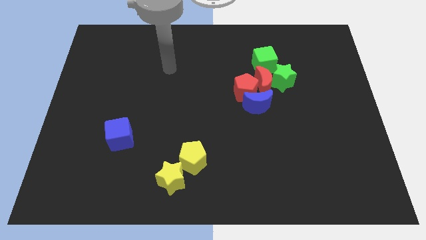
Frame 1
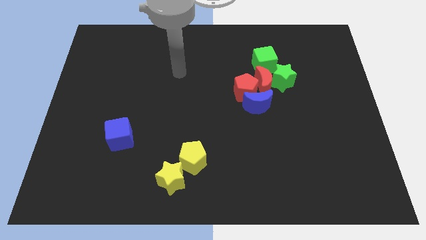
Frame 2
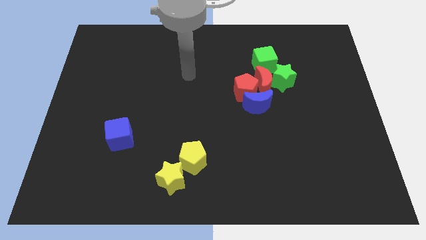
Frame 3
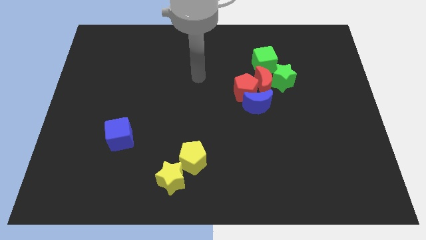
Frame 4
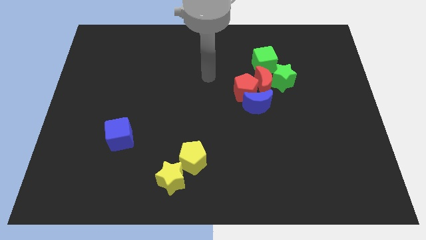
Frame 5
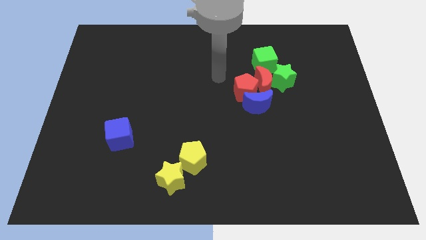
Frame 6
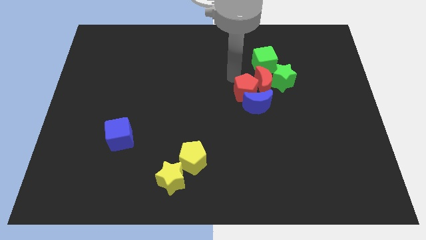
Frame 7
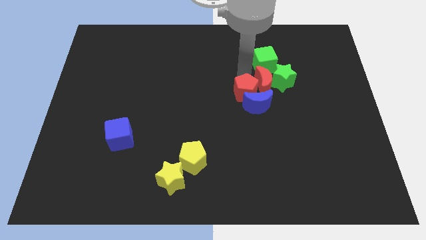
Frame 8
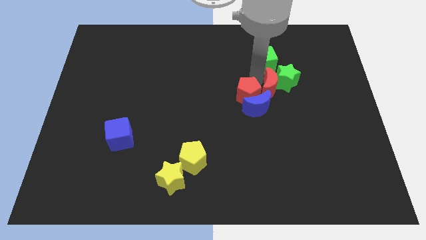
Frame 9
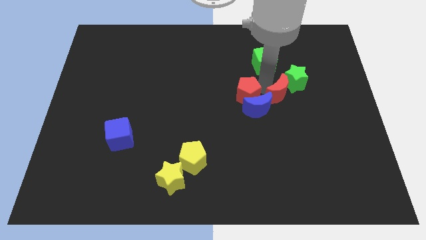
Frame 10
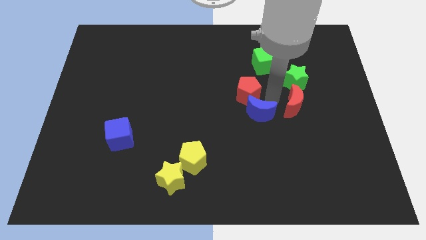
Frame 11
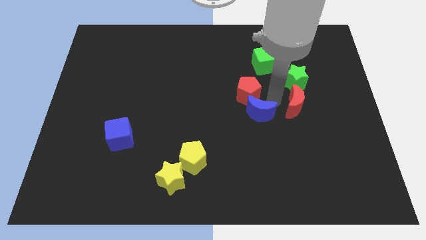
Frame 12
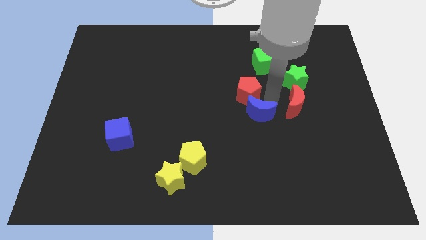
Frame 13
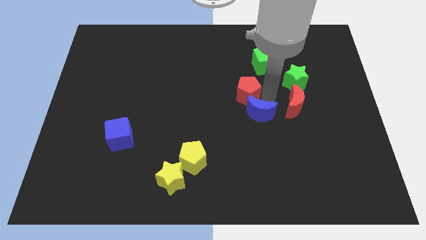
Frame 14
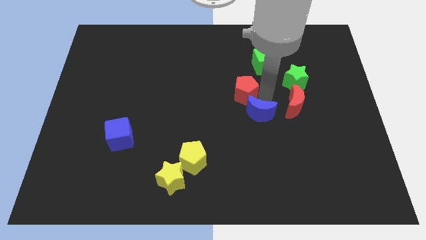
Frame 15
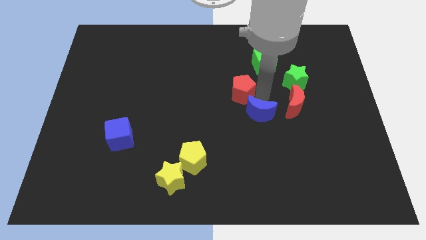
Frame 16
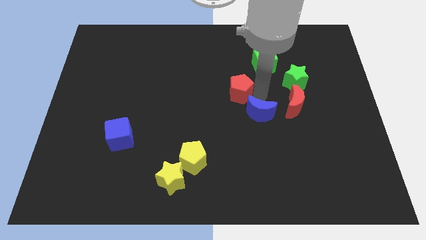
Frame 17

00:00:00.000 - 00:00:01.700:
pull the red pentagon apart from the blue moon and red moon

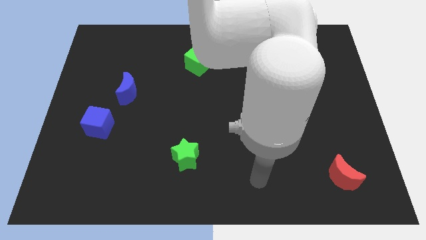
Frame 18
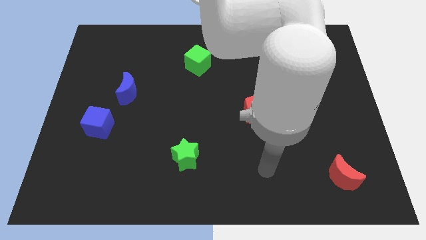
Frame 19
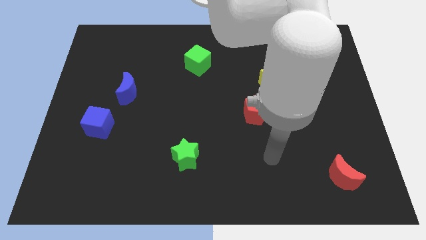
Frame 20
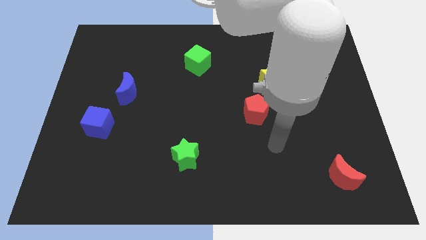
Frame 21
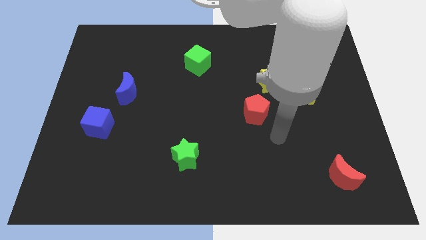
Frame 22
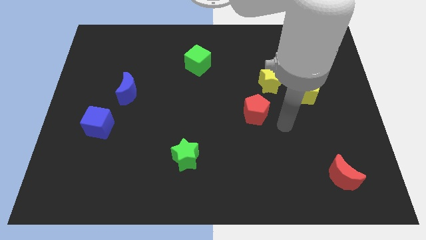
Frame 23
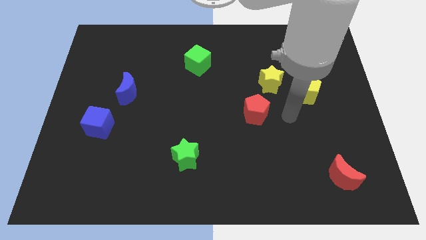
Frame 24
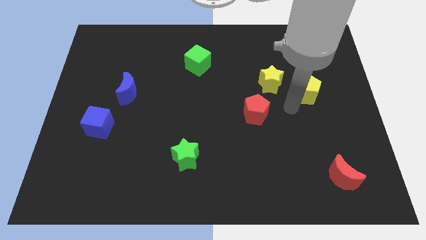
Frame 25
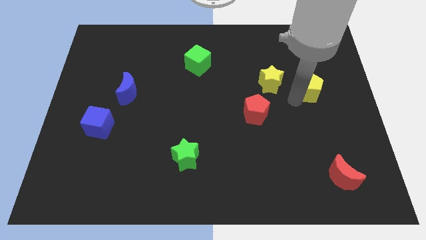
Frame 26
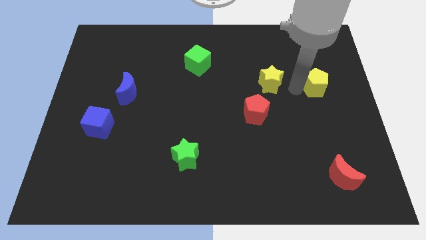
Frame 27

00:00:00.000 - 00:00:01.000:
pull the yellow star apart from the yellow pentagon

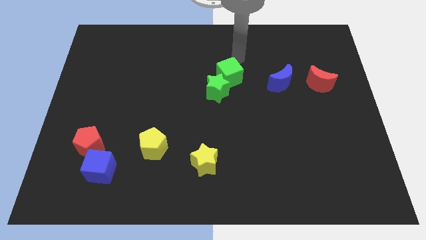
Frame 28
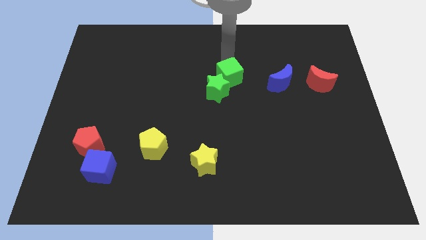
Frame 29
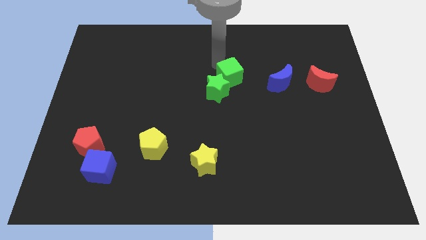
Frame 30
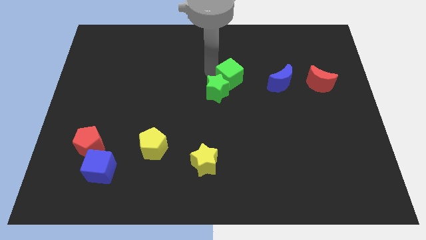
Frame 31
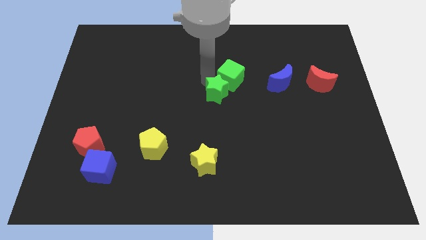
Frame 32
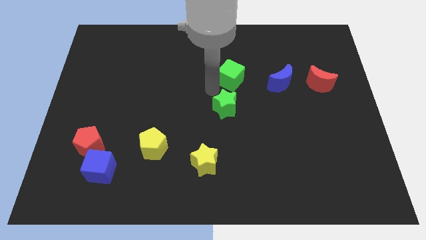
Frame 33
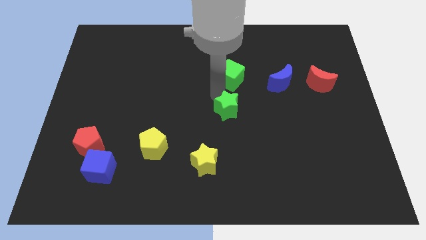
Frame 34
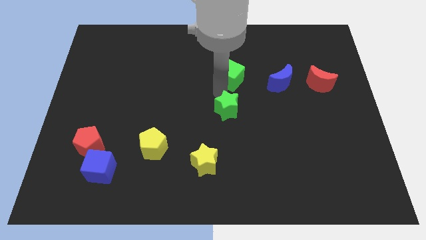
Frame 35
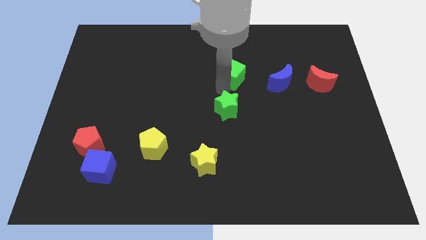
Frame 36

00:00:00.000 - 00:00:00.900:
pull the green cube apart from the green star

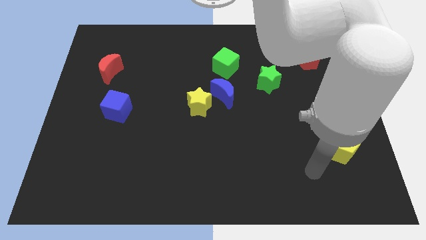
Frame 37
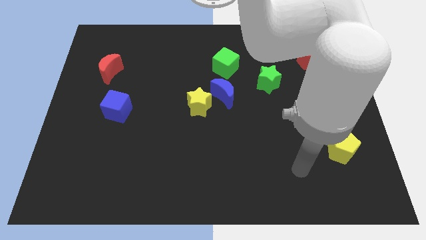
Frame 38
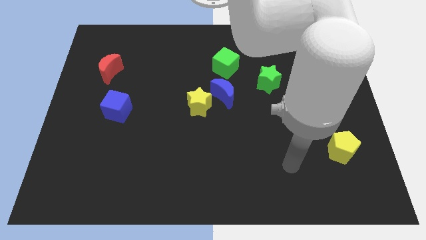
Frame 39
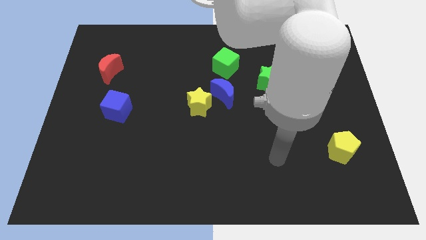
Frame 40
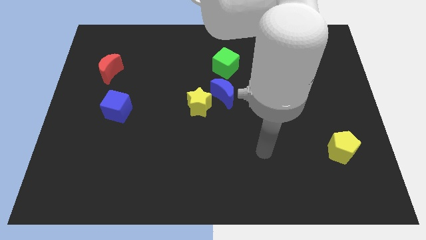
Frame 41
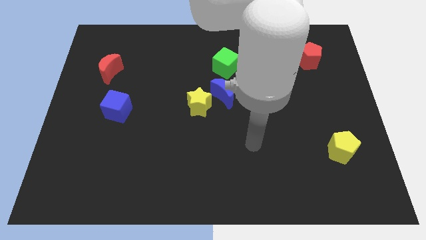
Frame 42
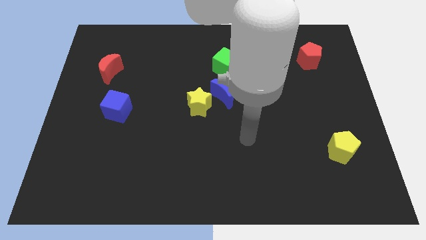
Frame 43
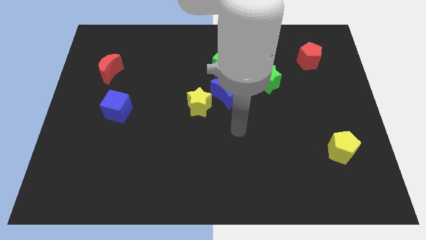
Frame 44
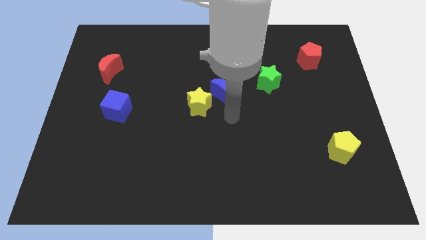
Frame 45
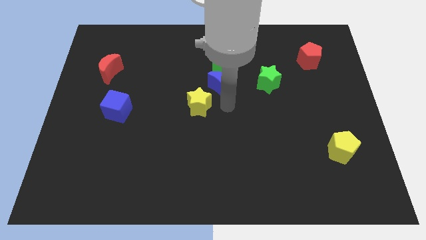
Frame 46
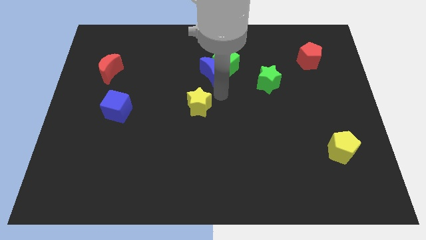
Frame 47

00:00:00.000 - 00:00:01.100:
separate the yellow star from the blue moon

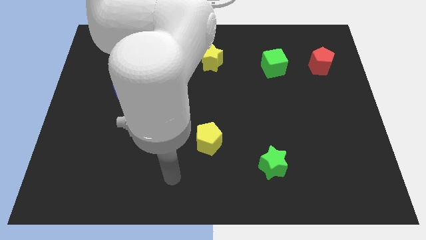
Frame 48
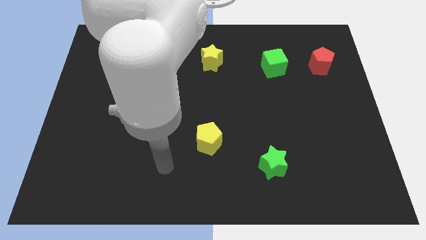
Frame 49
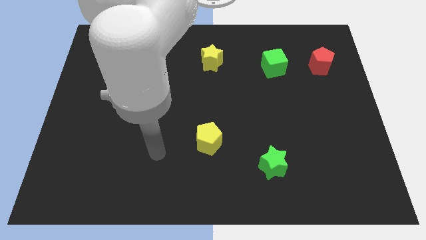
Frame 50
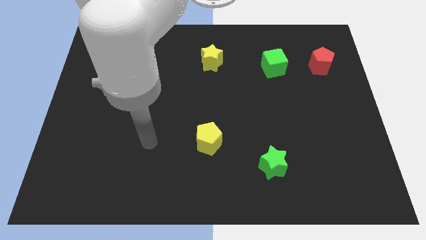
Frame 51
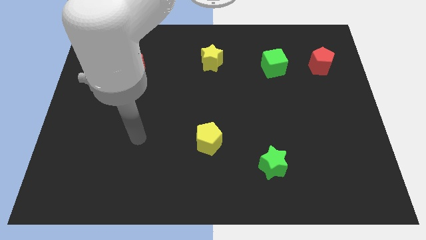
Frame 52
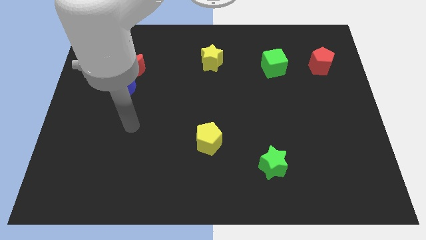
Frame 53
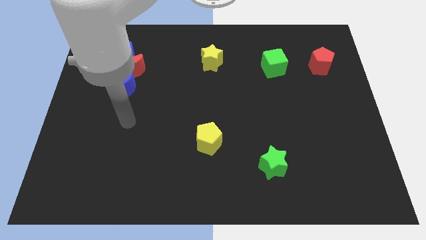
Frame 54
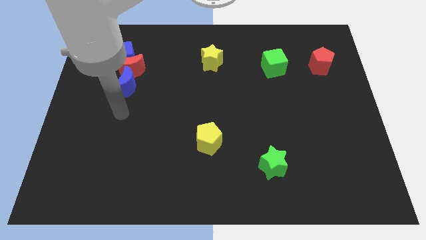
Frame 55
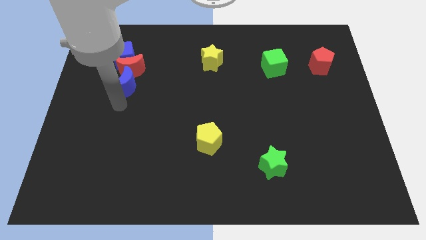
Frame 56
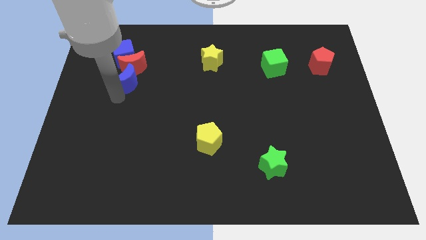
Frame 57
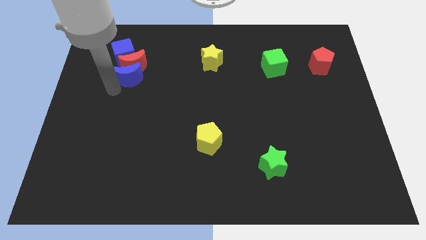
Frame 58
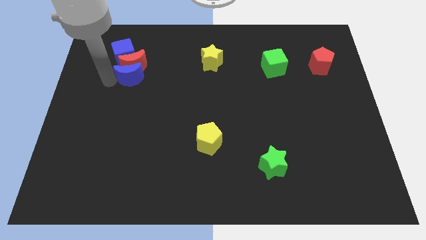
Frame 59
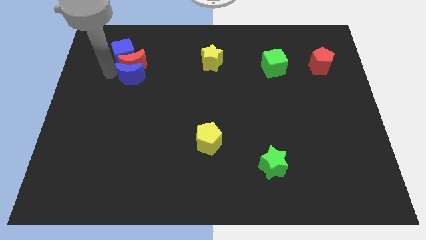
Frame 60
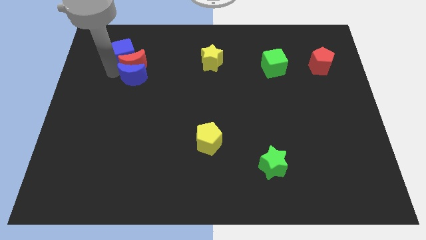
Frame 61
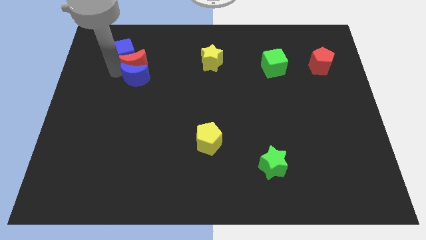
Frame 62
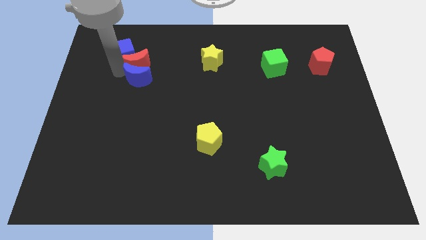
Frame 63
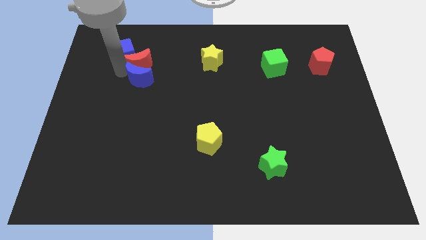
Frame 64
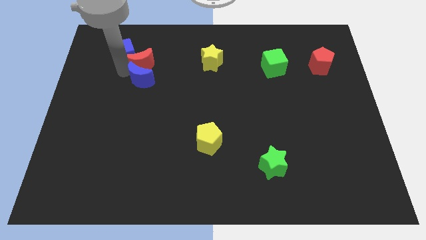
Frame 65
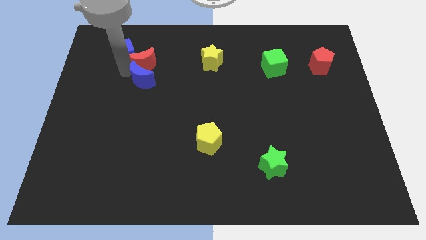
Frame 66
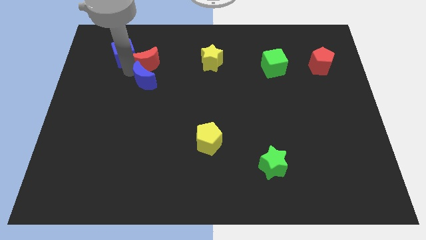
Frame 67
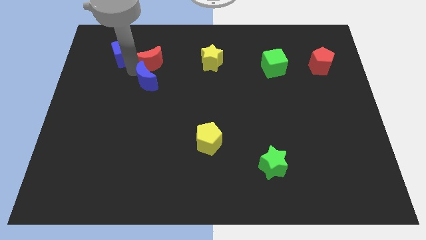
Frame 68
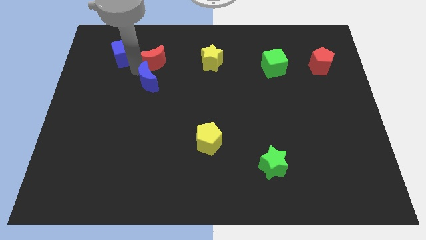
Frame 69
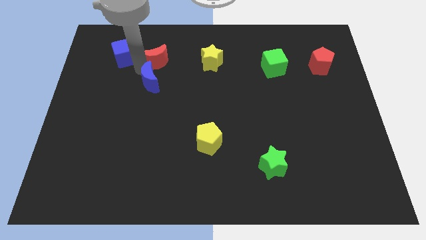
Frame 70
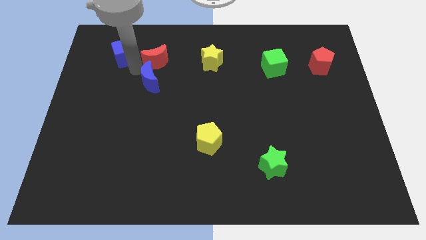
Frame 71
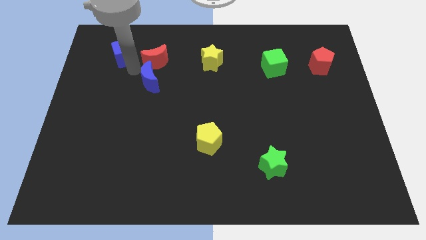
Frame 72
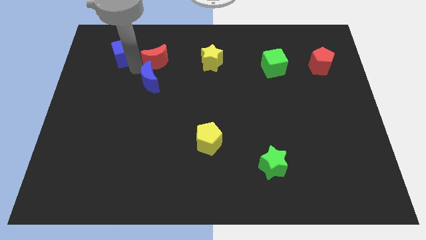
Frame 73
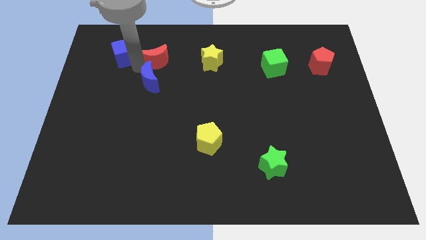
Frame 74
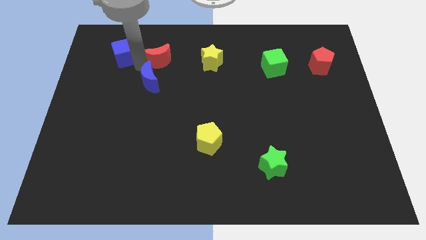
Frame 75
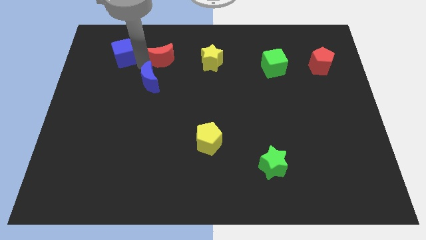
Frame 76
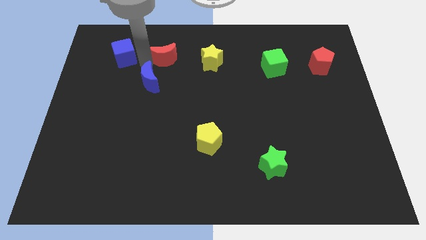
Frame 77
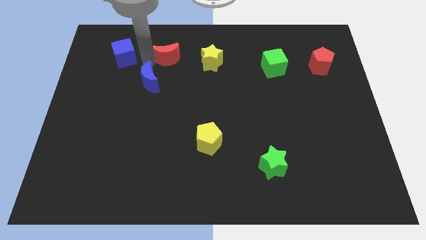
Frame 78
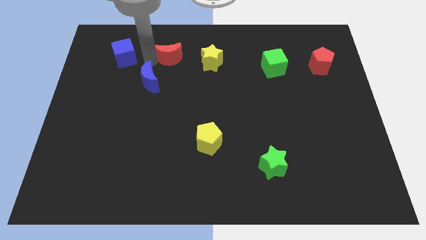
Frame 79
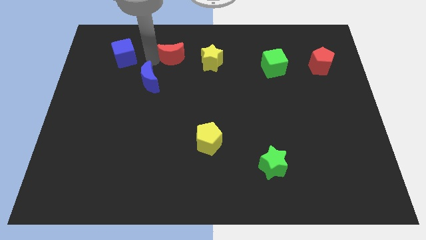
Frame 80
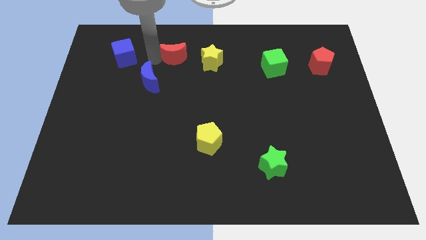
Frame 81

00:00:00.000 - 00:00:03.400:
separate the red moon from the blue cube and blue moon

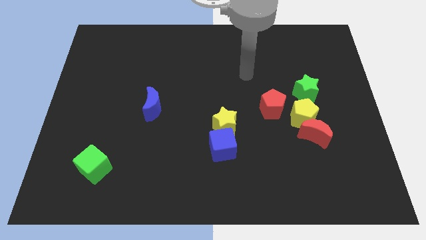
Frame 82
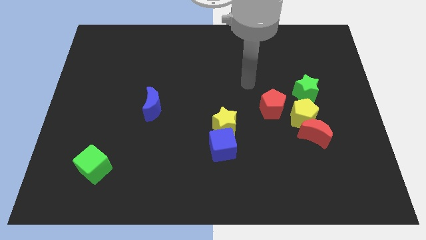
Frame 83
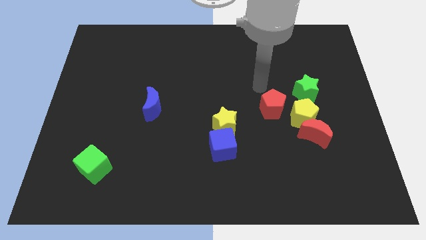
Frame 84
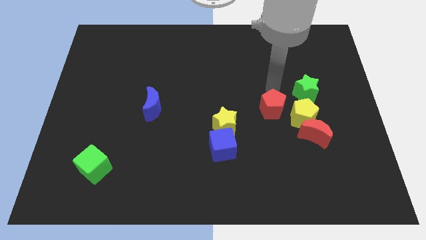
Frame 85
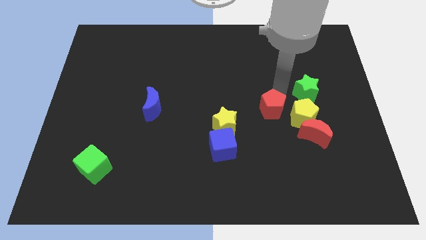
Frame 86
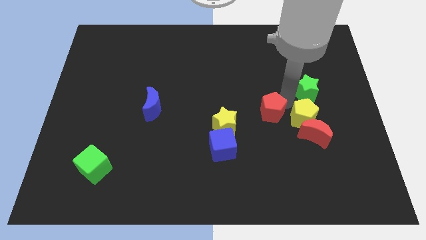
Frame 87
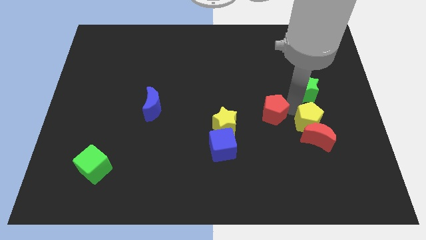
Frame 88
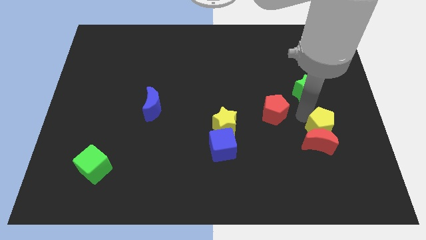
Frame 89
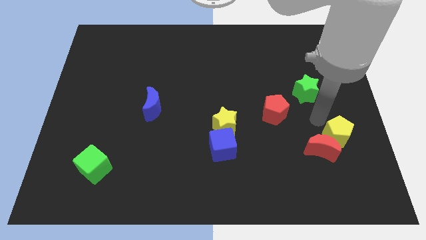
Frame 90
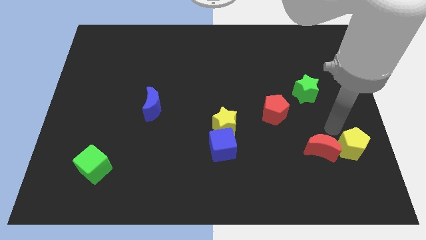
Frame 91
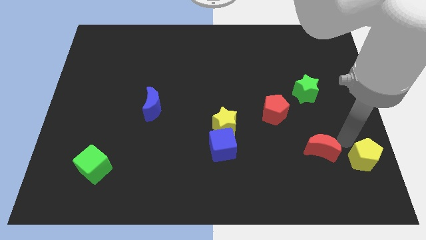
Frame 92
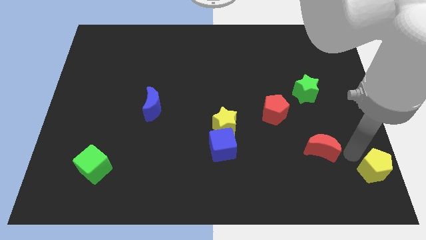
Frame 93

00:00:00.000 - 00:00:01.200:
move the red moon away from the yellow pentagon
